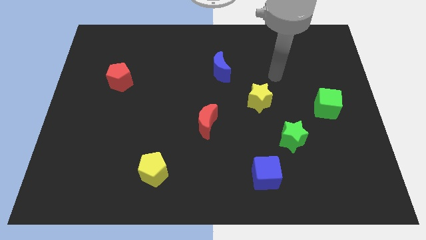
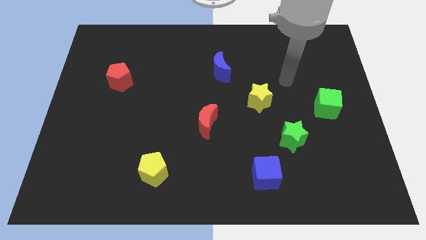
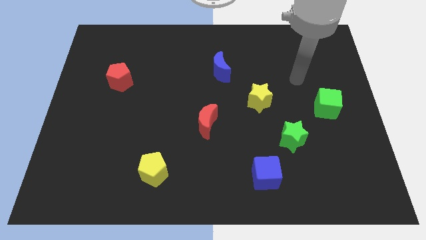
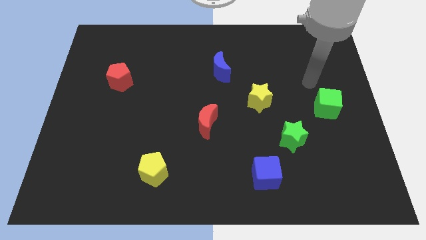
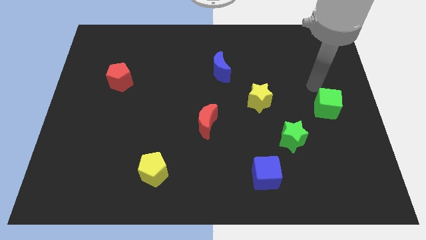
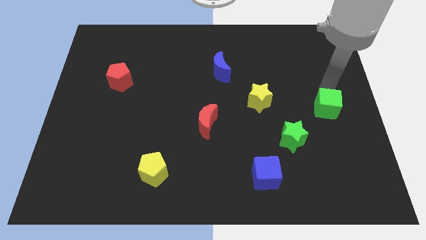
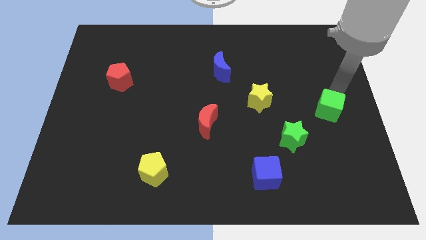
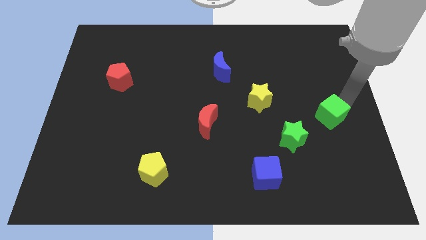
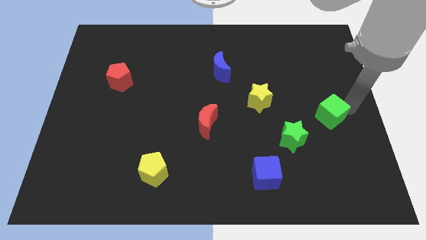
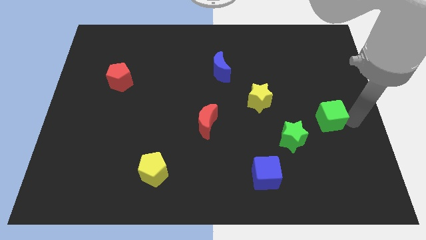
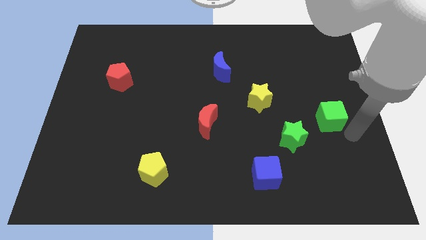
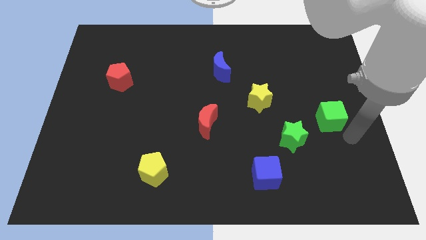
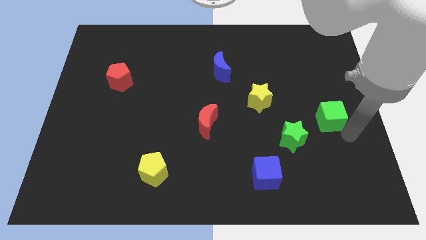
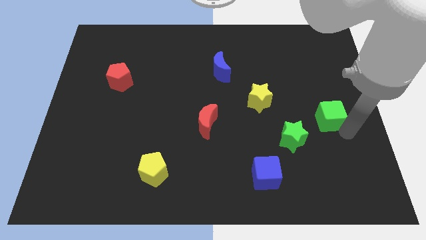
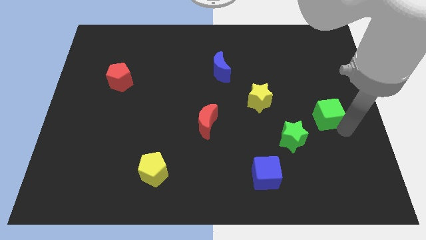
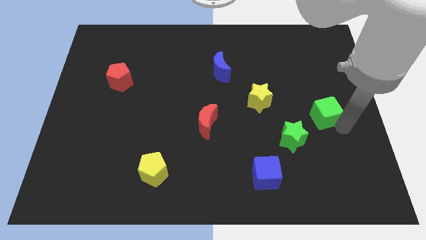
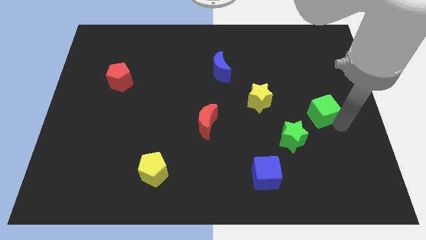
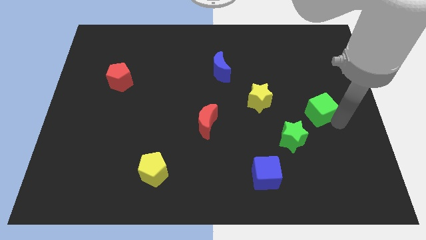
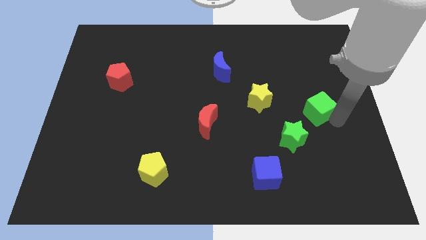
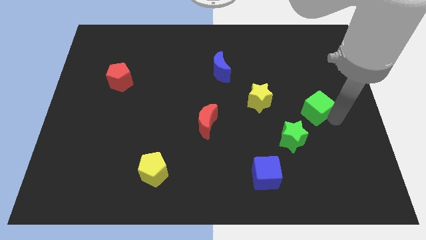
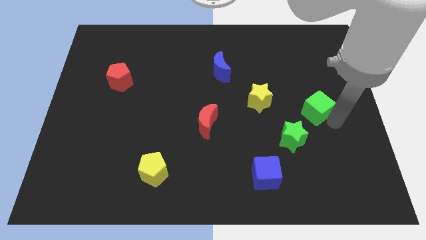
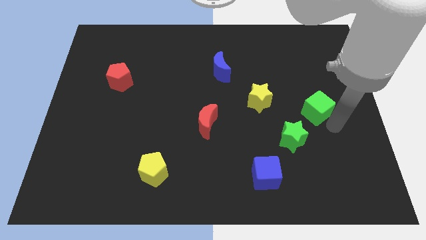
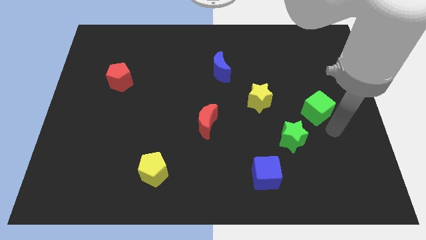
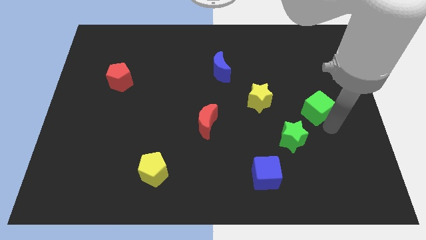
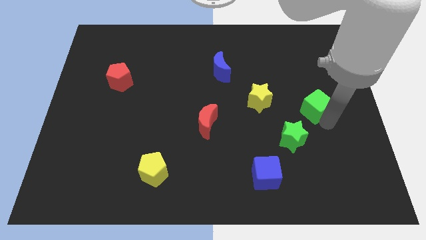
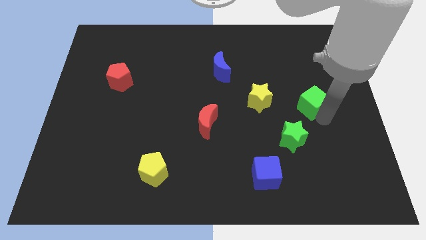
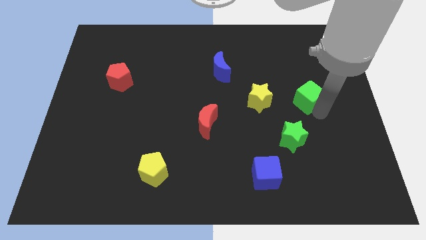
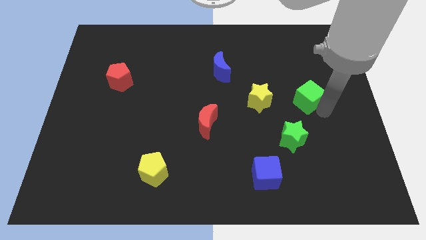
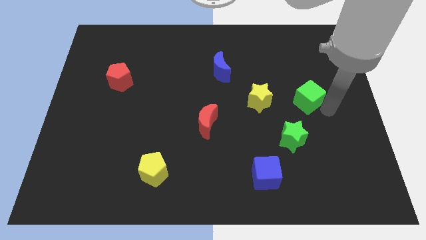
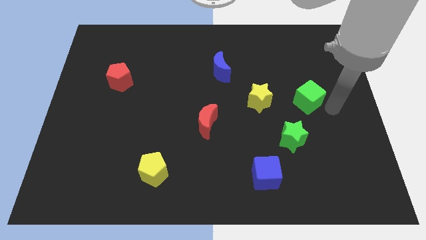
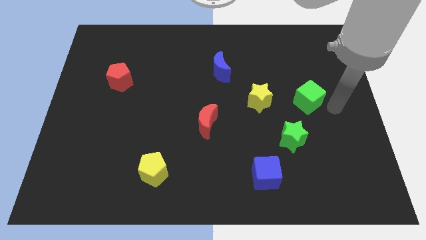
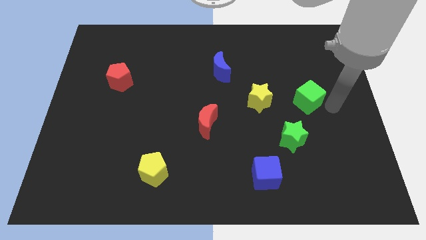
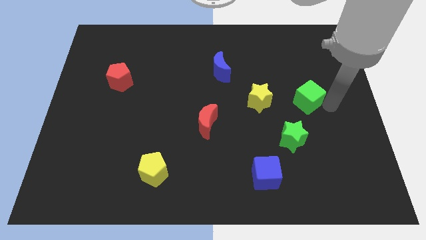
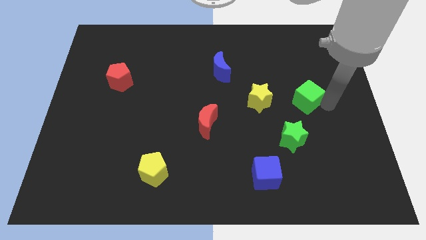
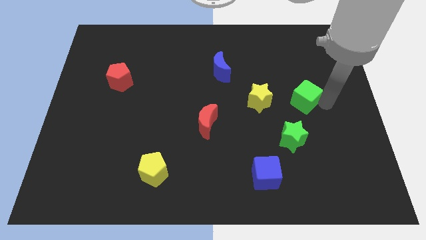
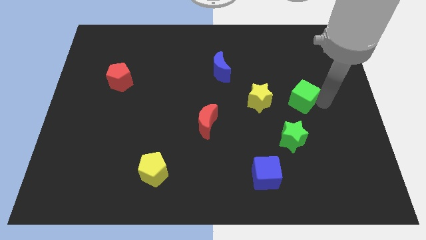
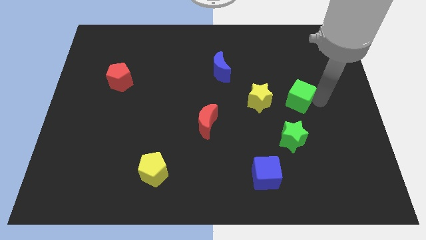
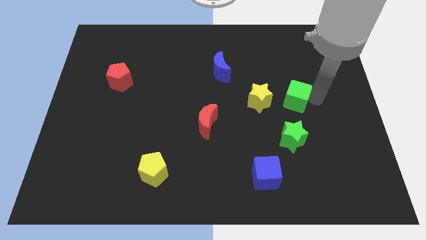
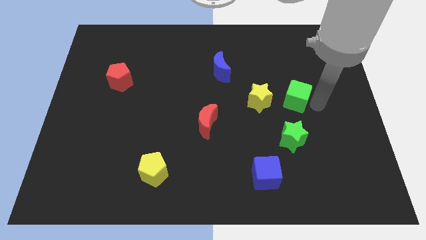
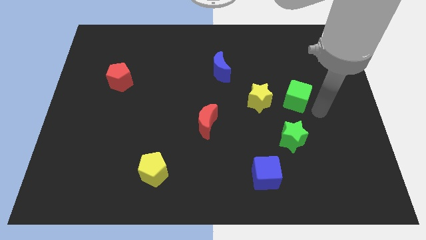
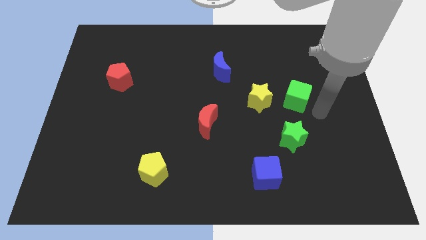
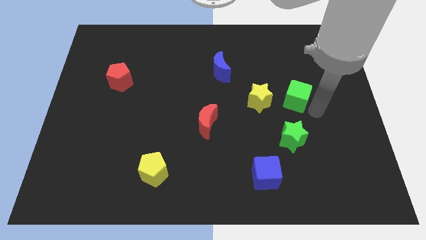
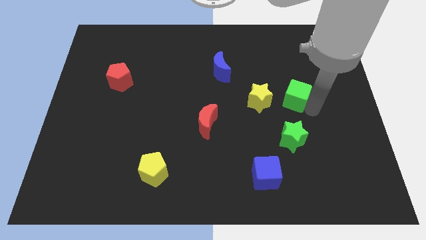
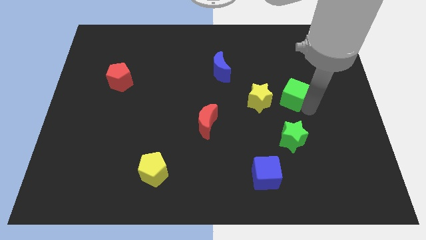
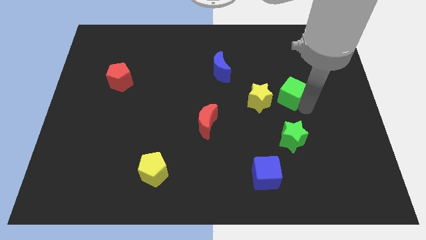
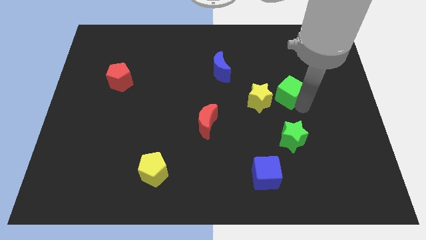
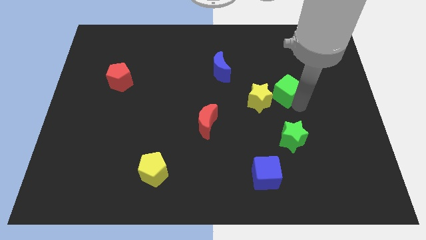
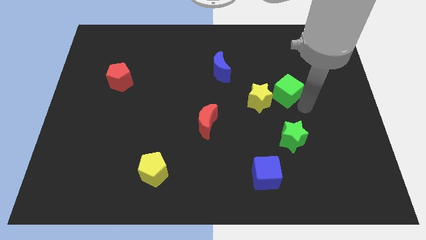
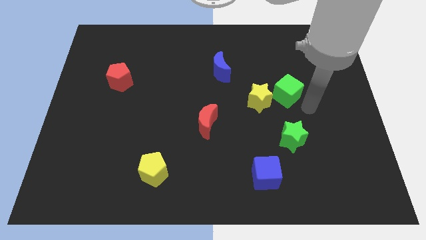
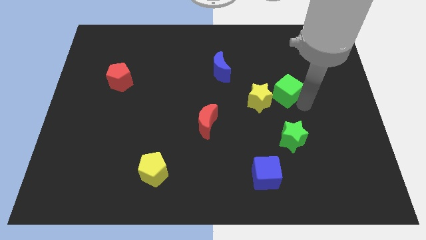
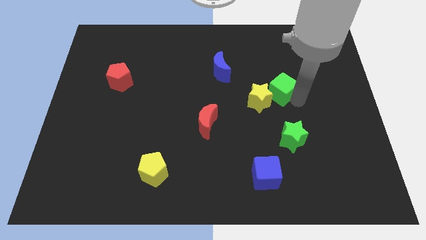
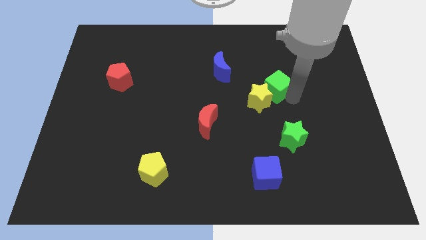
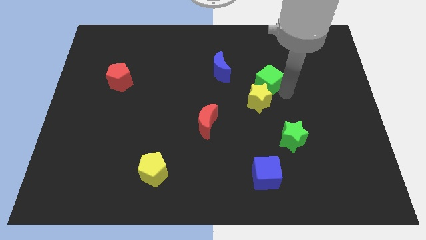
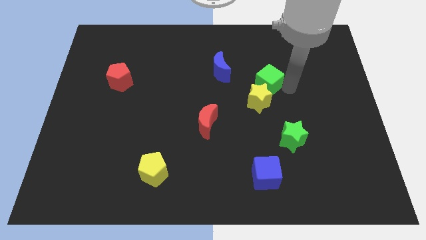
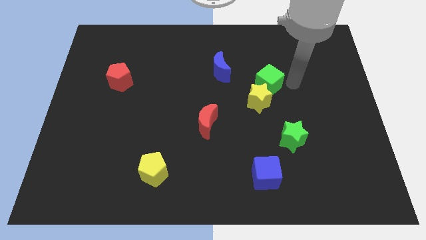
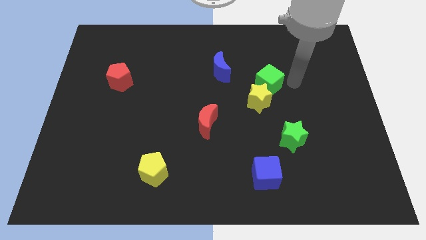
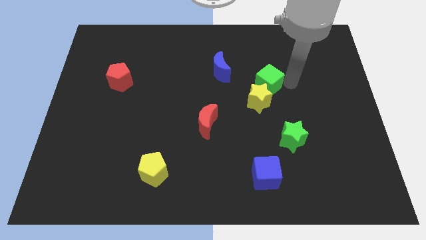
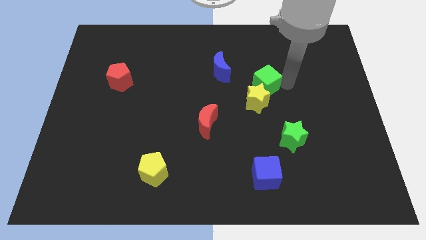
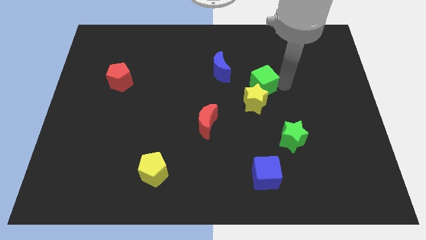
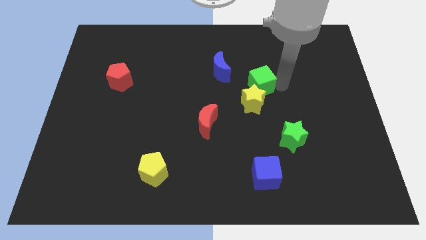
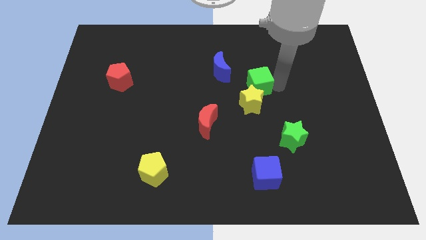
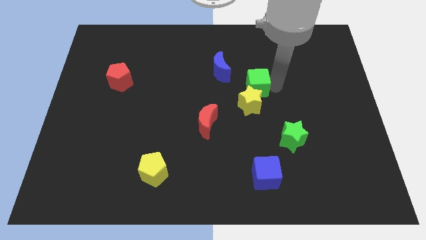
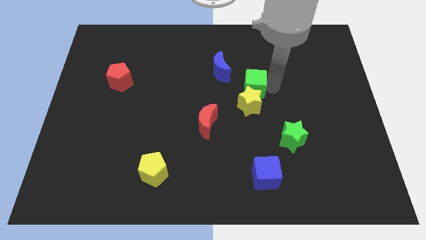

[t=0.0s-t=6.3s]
slide the green cube to the top left of the yellow star

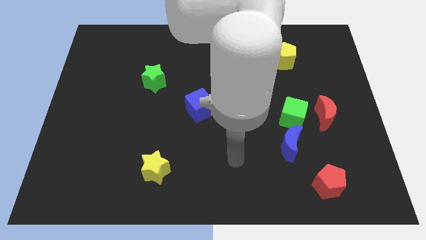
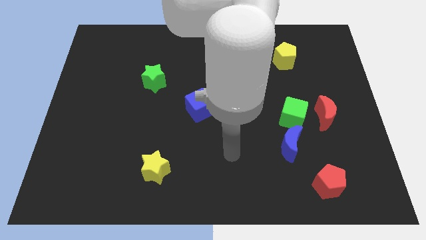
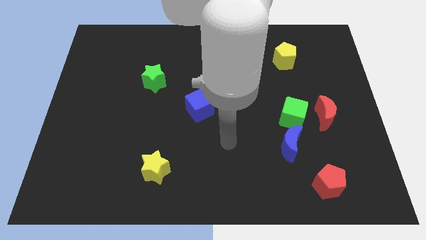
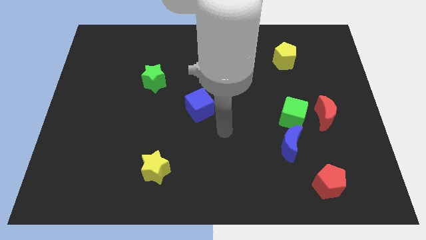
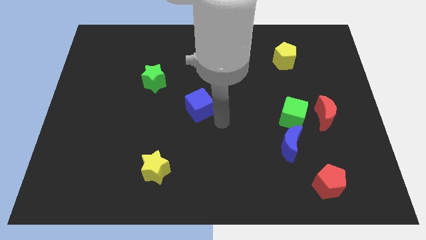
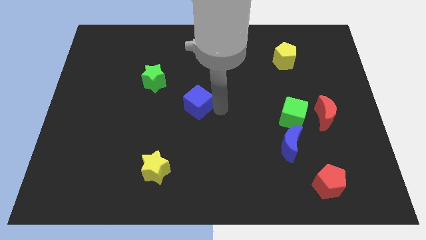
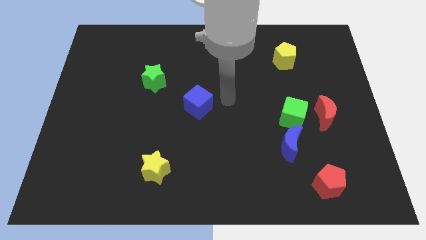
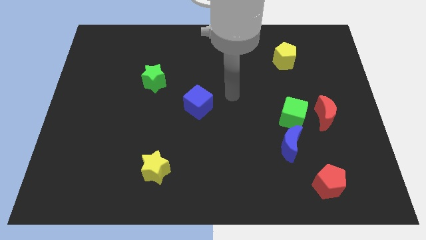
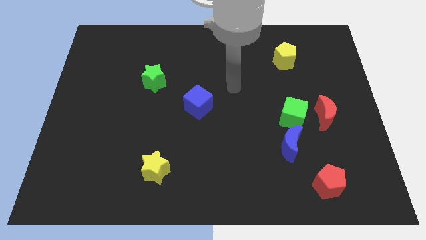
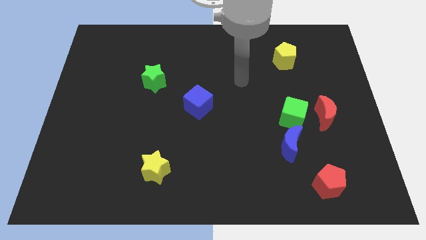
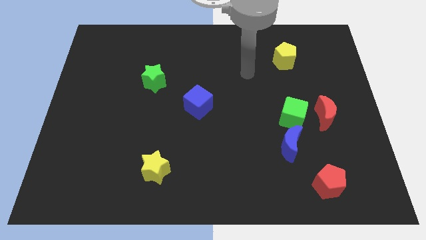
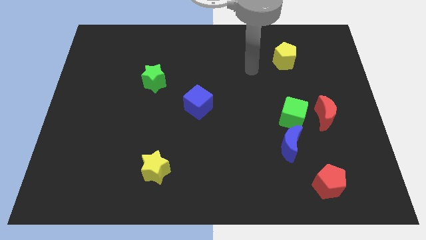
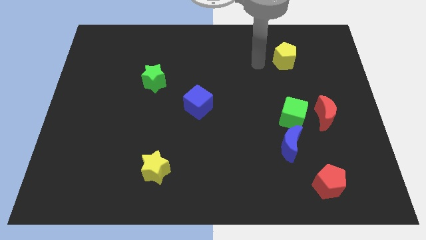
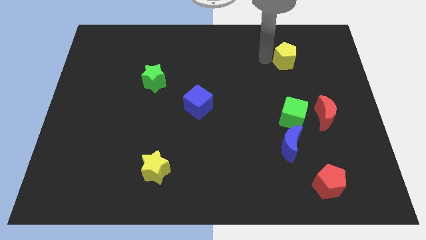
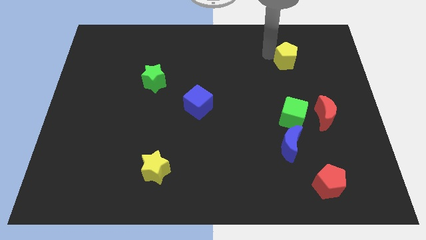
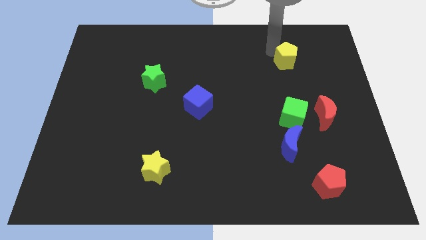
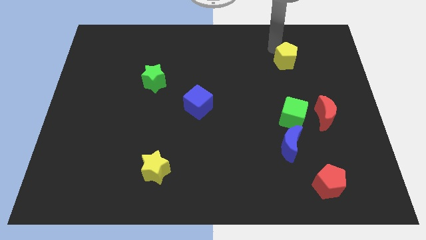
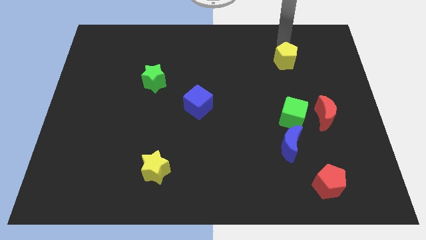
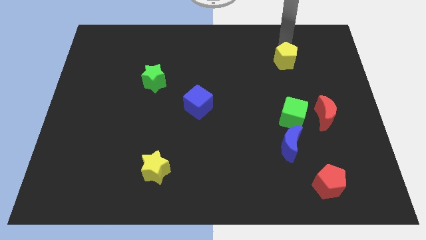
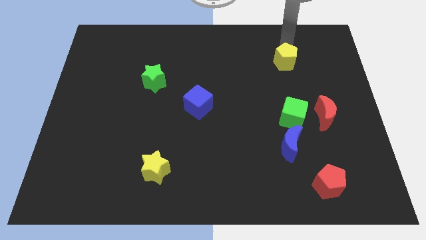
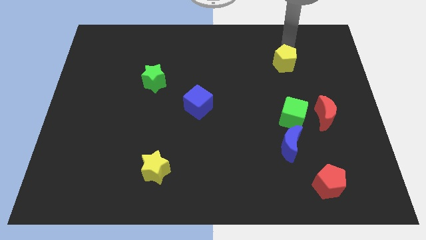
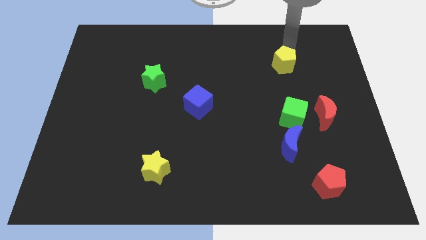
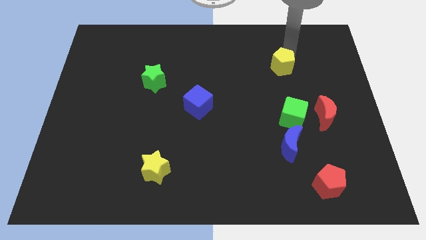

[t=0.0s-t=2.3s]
move the yellow pentagon to the top side of the green cube
